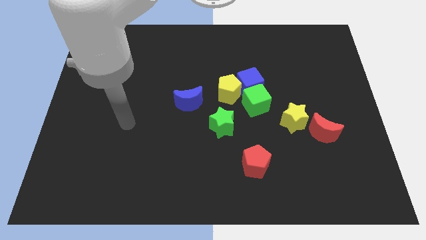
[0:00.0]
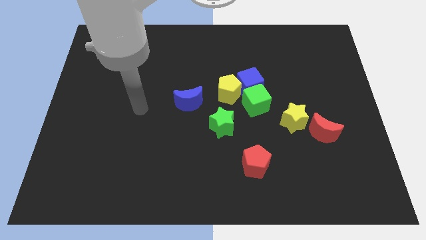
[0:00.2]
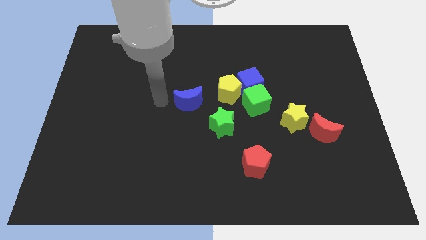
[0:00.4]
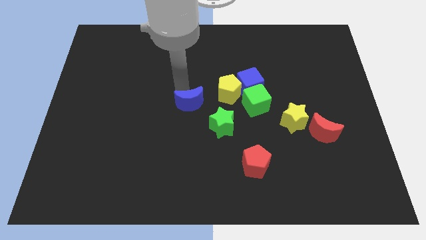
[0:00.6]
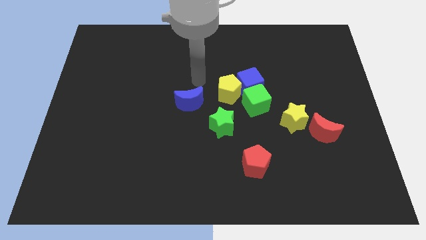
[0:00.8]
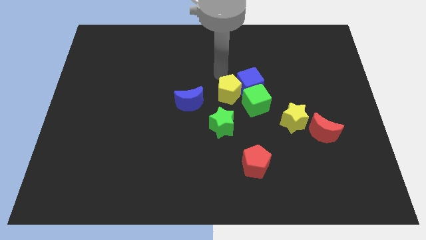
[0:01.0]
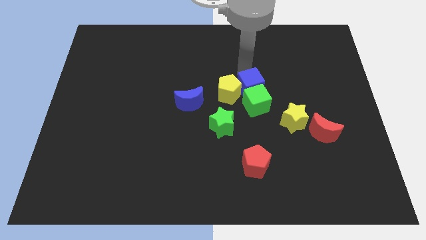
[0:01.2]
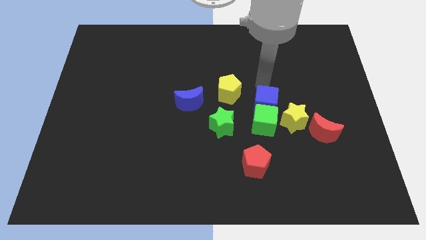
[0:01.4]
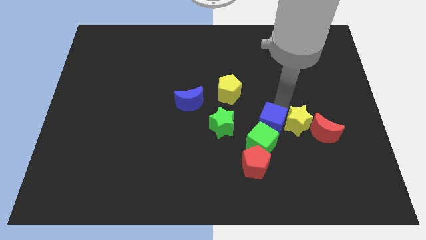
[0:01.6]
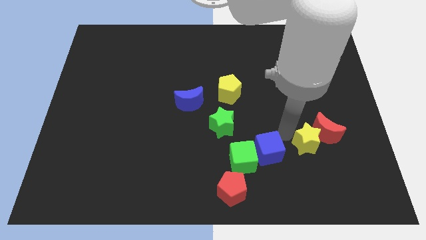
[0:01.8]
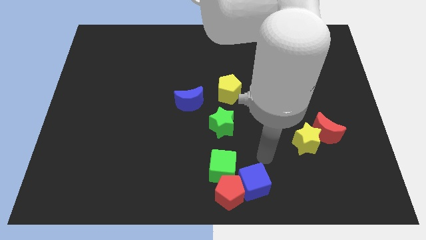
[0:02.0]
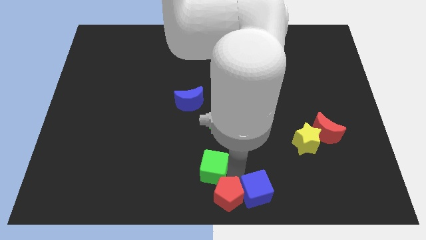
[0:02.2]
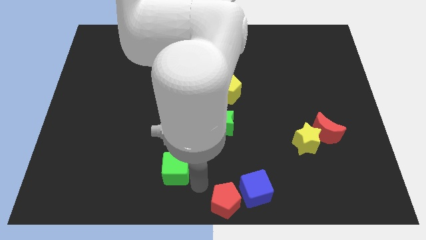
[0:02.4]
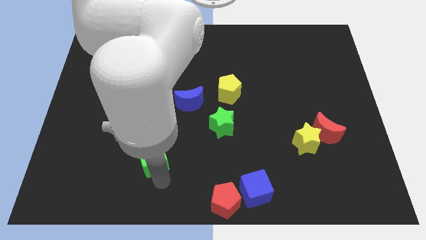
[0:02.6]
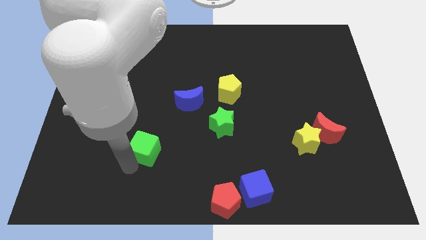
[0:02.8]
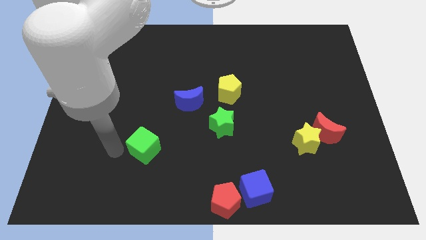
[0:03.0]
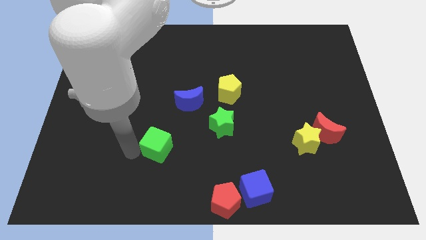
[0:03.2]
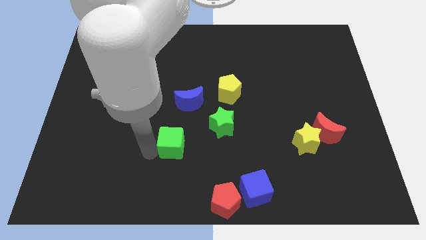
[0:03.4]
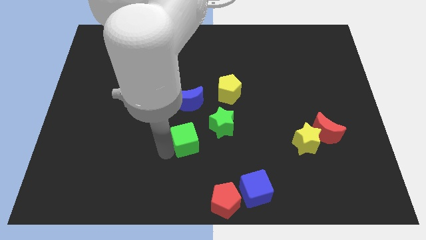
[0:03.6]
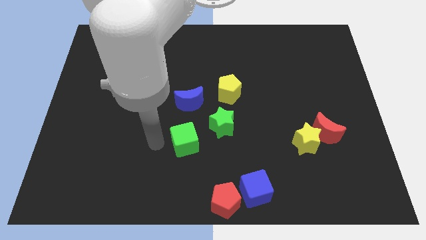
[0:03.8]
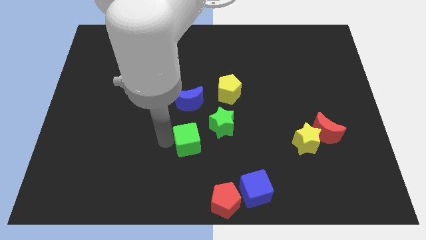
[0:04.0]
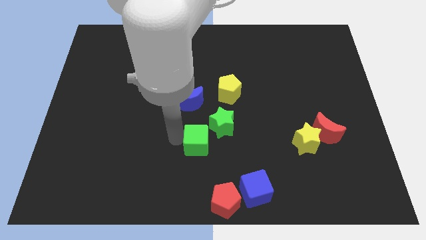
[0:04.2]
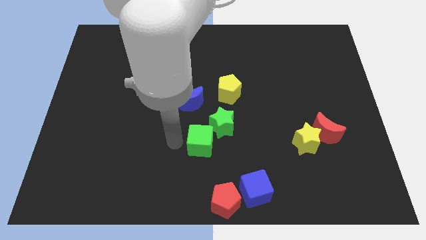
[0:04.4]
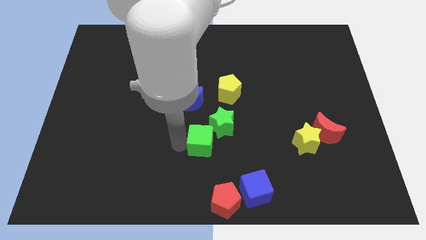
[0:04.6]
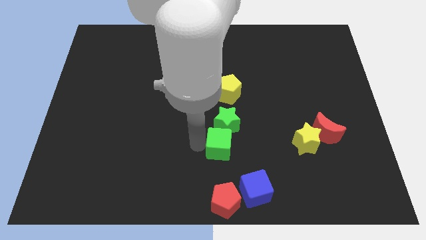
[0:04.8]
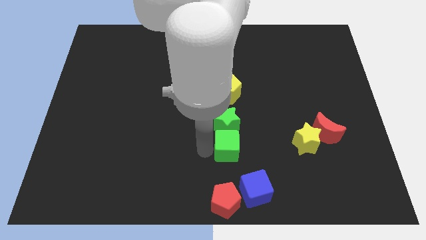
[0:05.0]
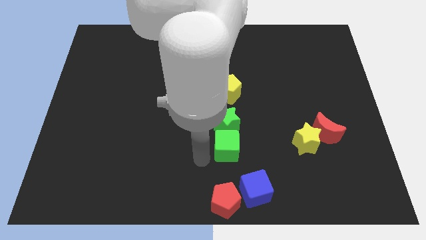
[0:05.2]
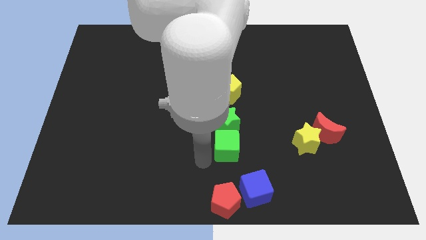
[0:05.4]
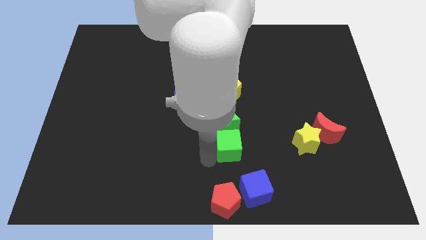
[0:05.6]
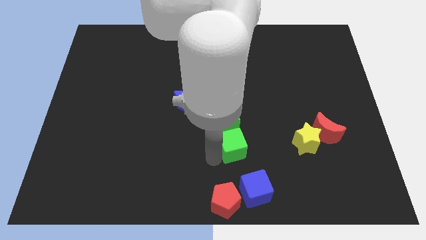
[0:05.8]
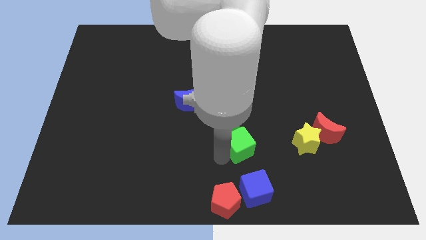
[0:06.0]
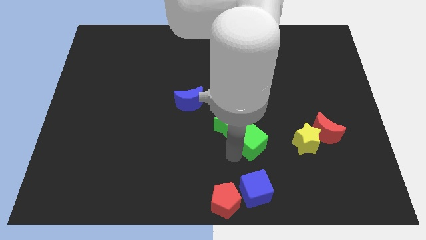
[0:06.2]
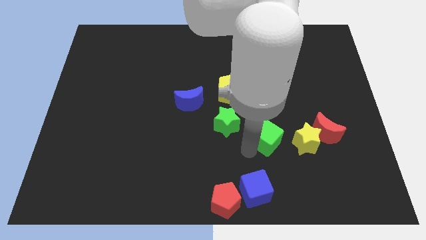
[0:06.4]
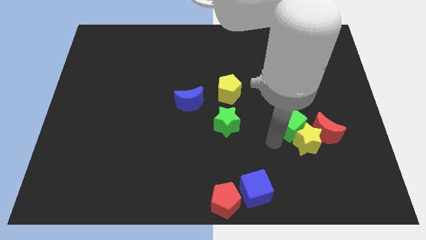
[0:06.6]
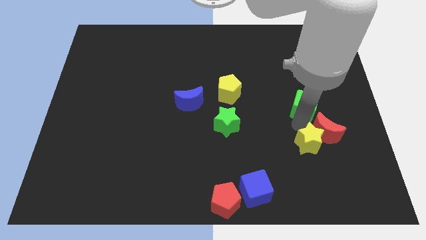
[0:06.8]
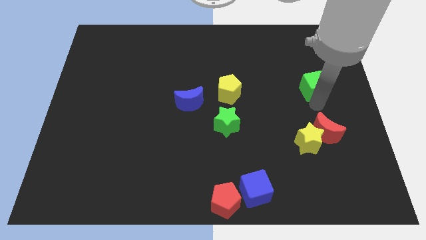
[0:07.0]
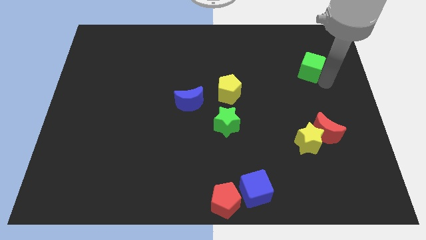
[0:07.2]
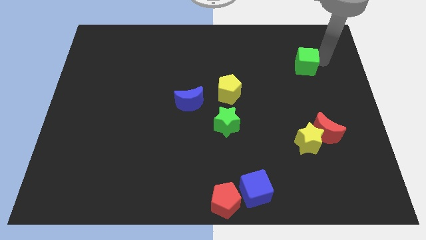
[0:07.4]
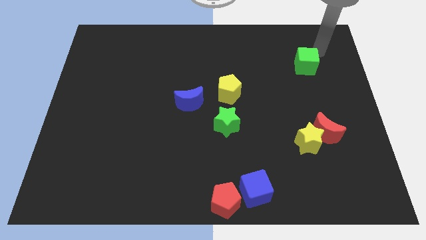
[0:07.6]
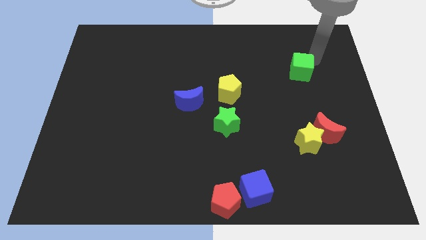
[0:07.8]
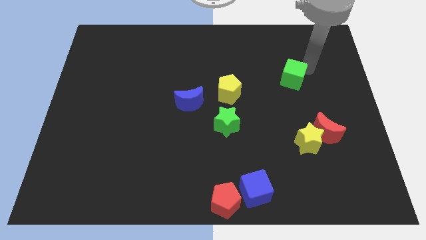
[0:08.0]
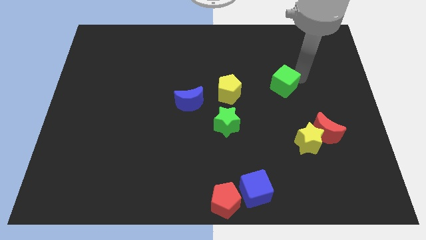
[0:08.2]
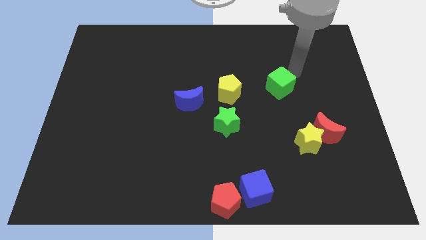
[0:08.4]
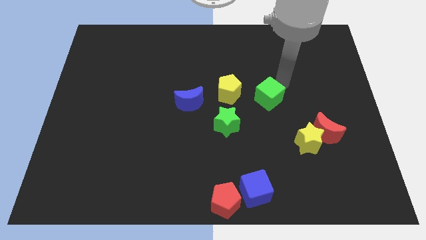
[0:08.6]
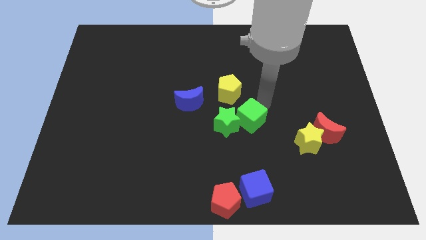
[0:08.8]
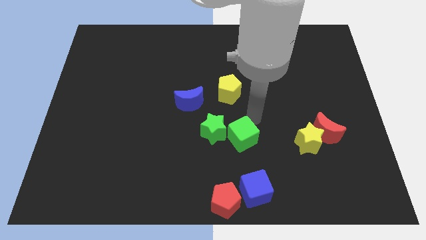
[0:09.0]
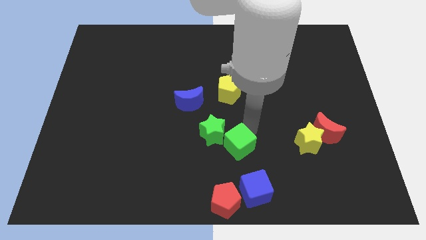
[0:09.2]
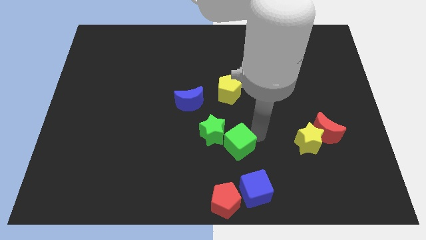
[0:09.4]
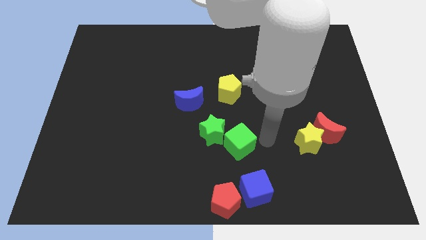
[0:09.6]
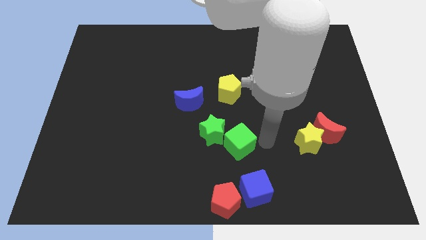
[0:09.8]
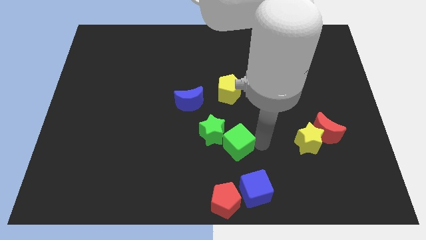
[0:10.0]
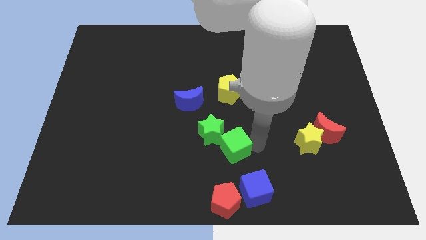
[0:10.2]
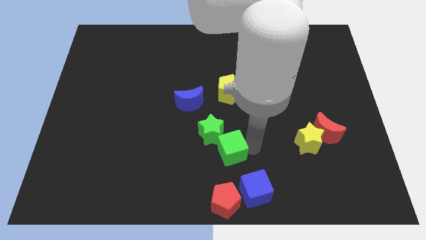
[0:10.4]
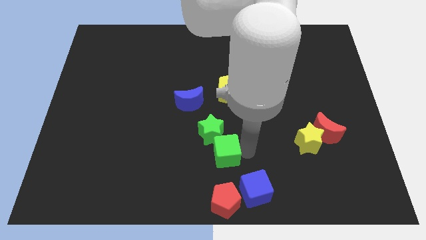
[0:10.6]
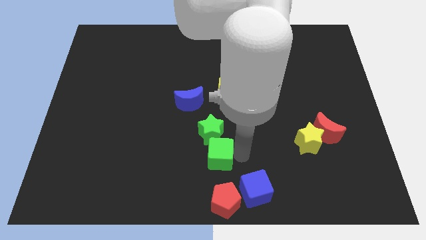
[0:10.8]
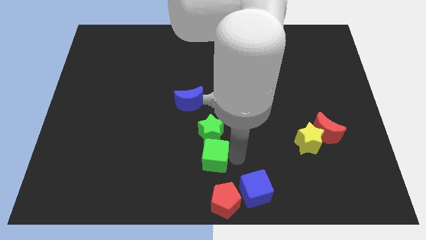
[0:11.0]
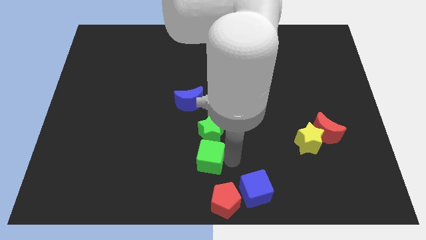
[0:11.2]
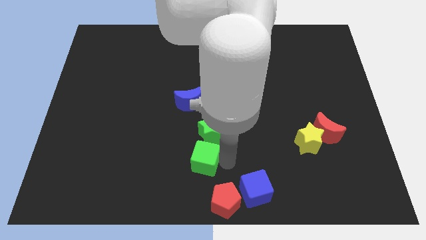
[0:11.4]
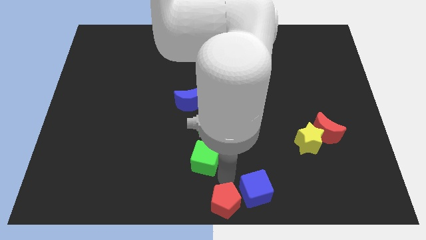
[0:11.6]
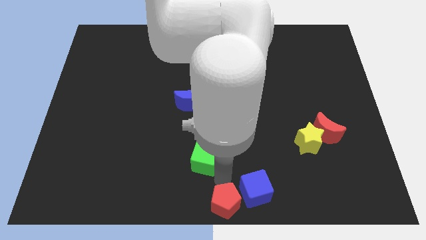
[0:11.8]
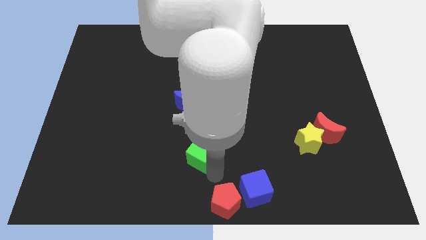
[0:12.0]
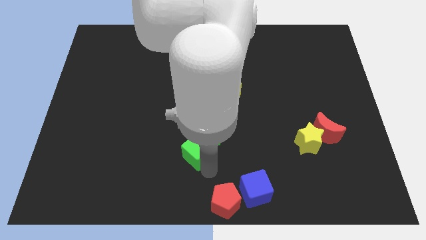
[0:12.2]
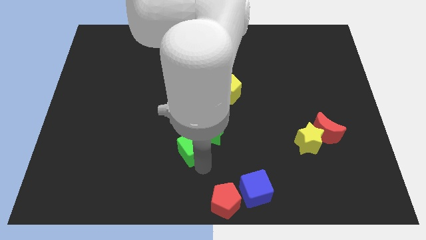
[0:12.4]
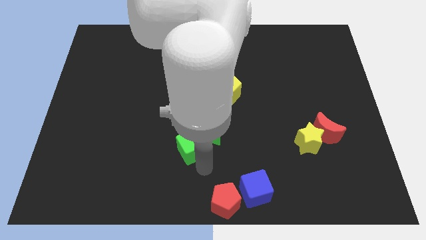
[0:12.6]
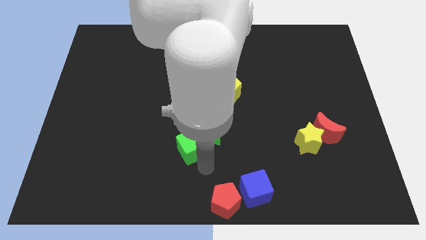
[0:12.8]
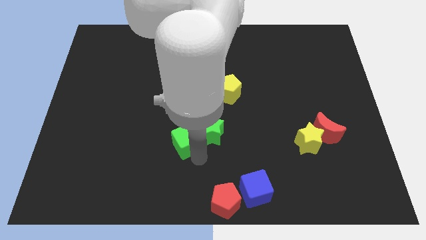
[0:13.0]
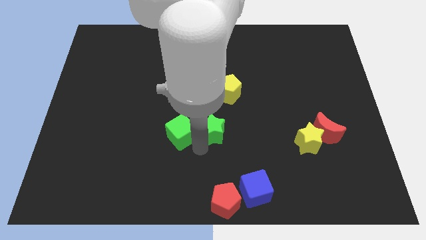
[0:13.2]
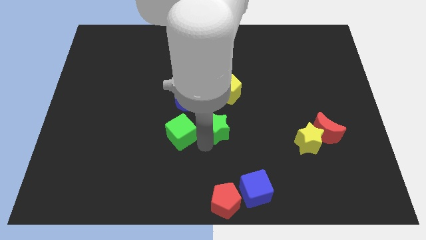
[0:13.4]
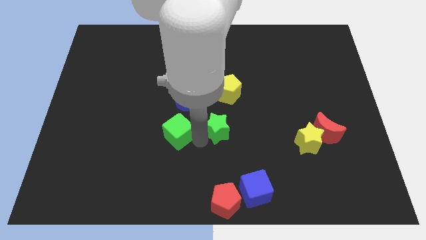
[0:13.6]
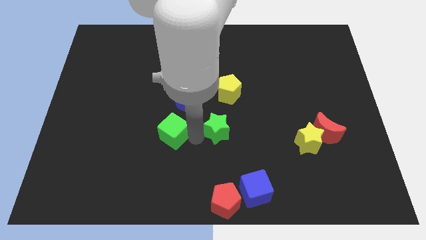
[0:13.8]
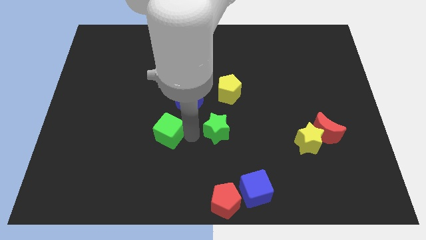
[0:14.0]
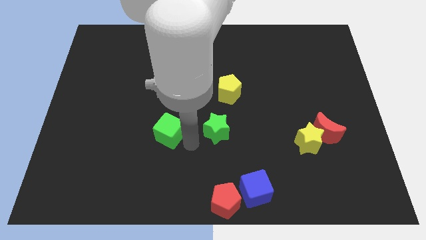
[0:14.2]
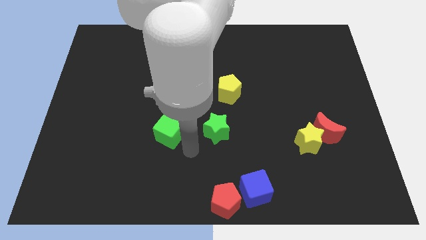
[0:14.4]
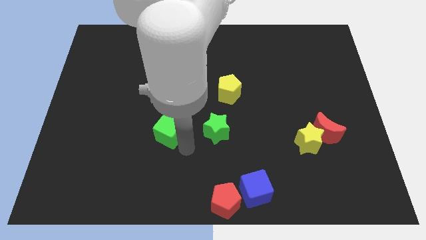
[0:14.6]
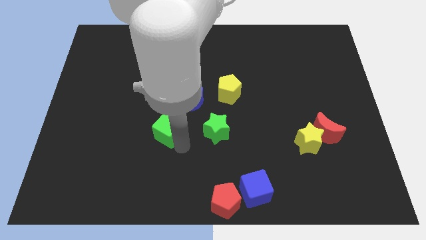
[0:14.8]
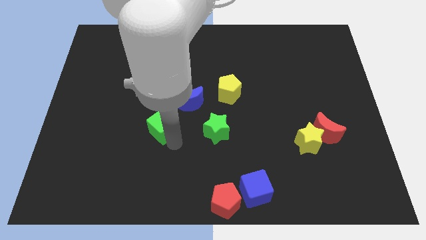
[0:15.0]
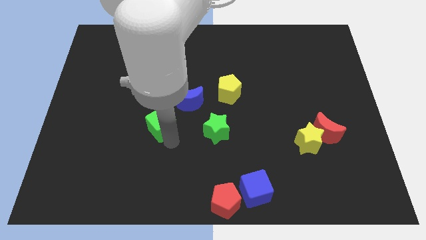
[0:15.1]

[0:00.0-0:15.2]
slide the green cube left

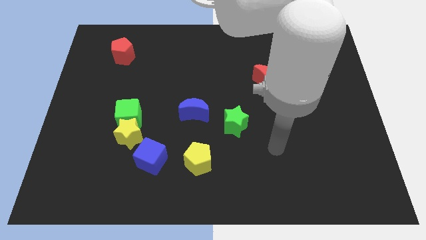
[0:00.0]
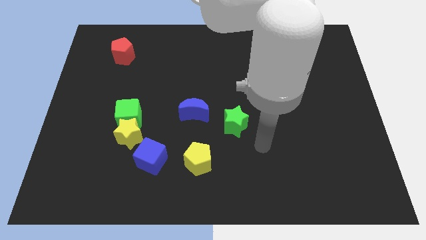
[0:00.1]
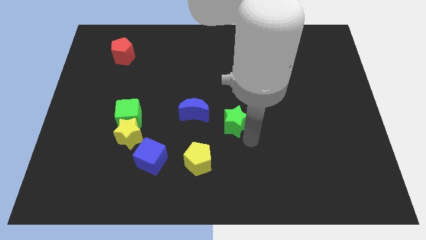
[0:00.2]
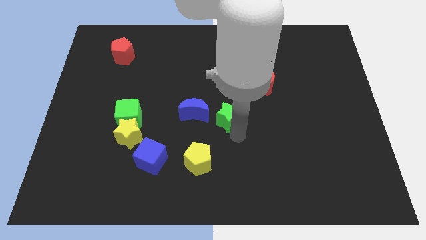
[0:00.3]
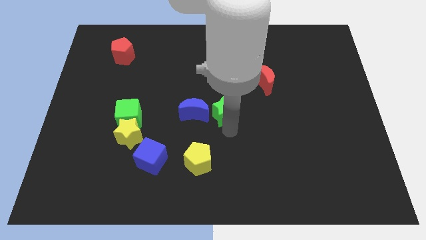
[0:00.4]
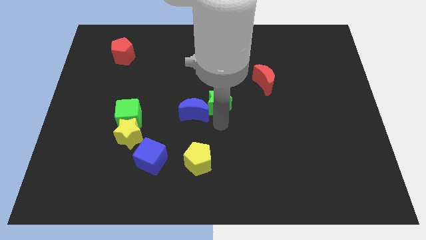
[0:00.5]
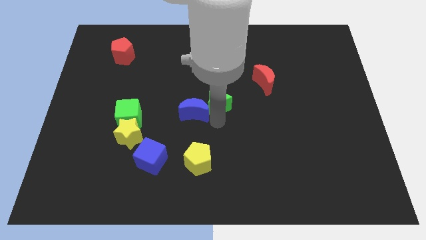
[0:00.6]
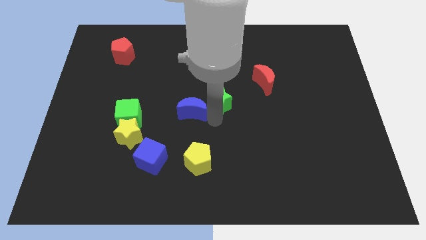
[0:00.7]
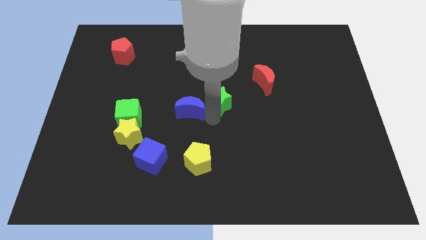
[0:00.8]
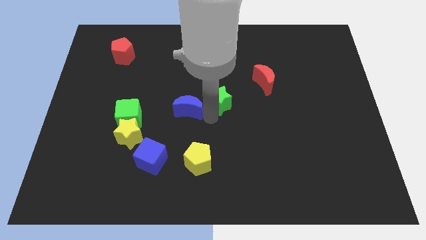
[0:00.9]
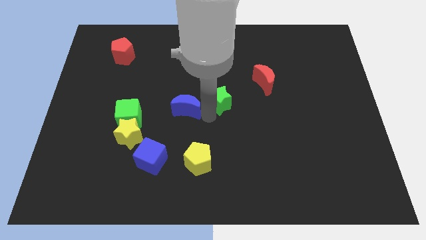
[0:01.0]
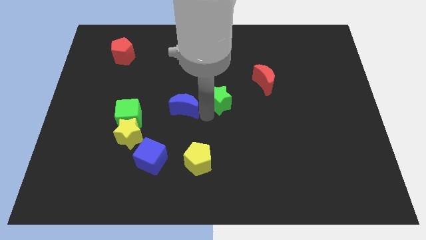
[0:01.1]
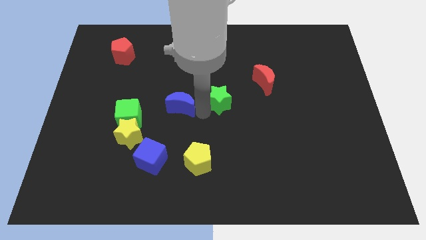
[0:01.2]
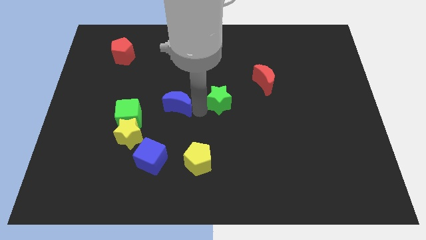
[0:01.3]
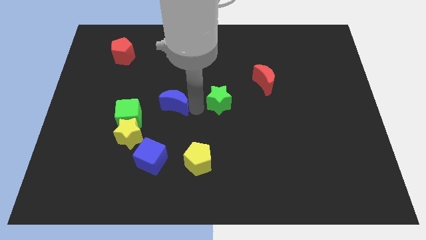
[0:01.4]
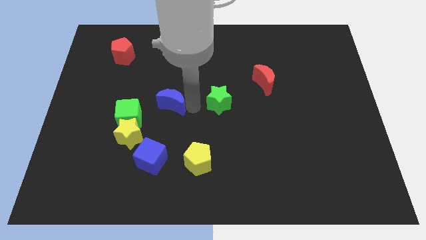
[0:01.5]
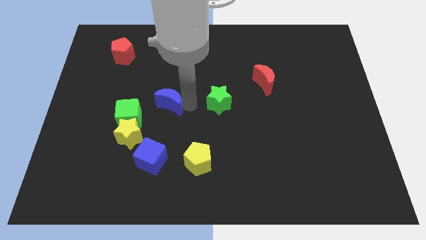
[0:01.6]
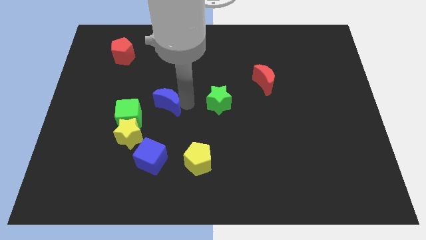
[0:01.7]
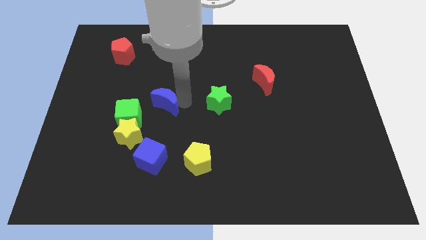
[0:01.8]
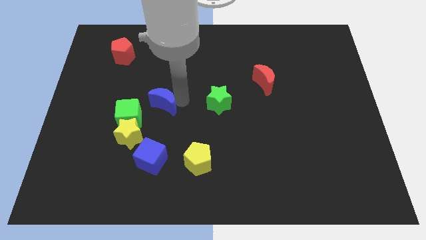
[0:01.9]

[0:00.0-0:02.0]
move the blue moon up and then to the left a little bit
